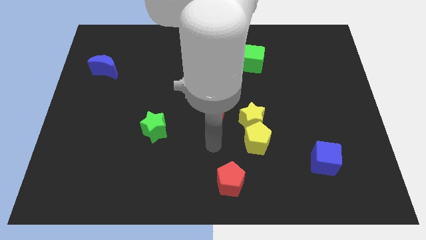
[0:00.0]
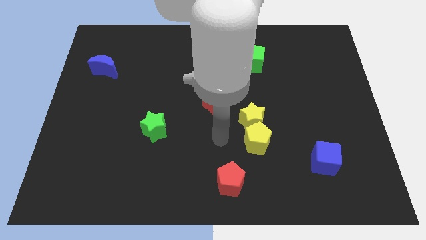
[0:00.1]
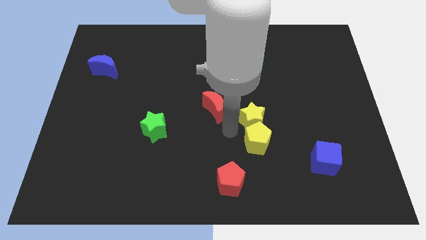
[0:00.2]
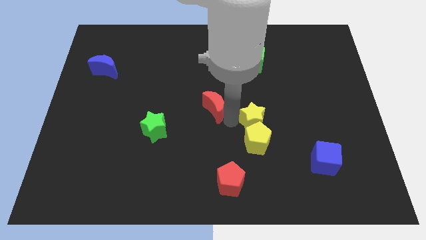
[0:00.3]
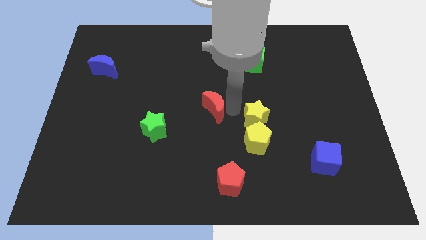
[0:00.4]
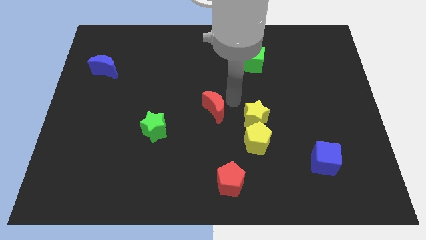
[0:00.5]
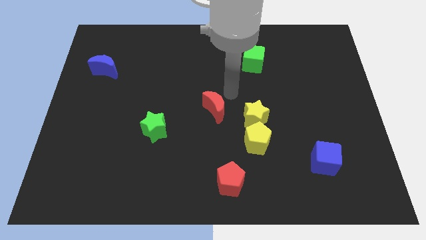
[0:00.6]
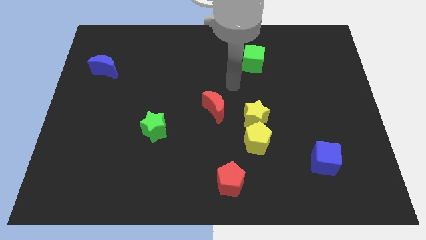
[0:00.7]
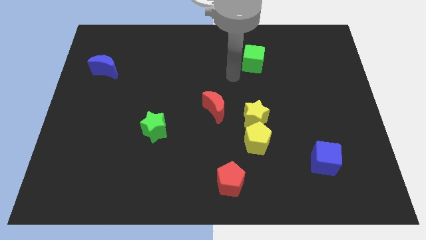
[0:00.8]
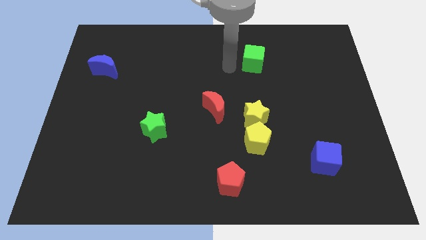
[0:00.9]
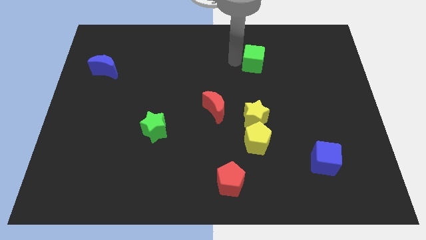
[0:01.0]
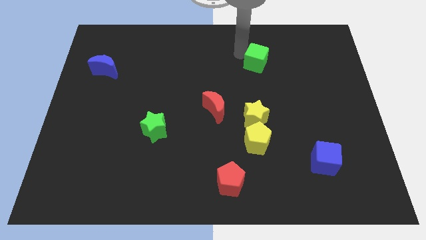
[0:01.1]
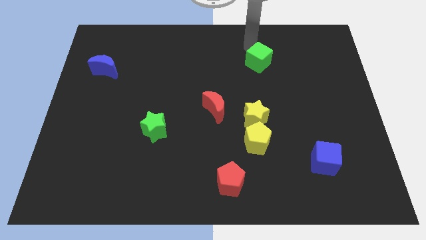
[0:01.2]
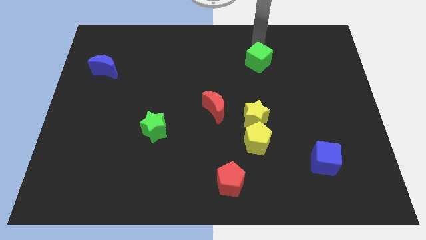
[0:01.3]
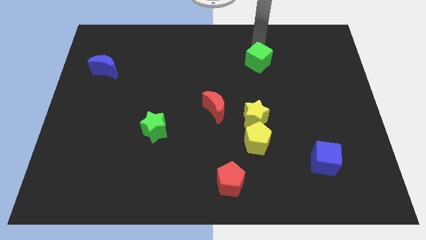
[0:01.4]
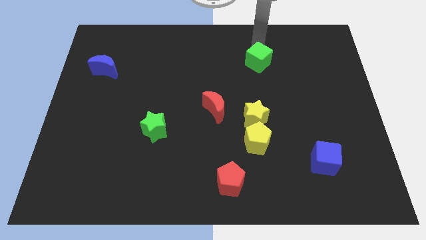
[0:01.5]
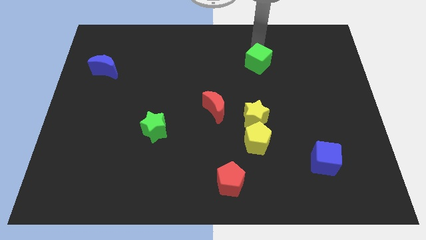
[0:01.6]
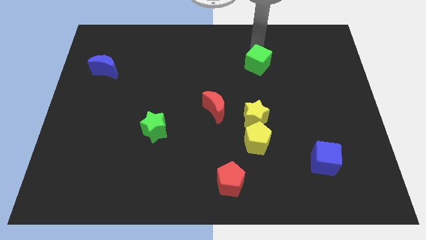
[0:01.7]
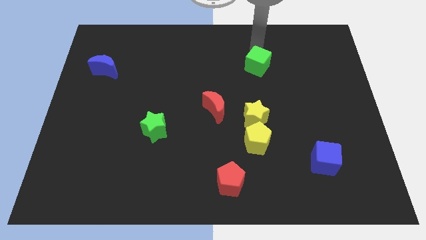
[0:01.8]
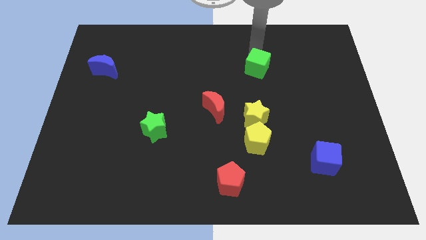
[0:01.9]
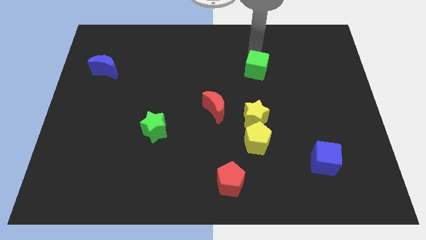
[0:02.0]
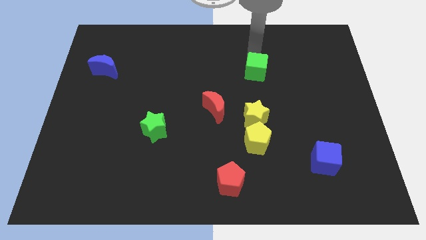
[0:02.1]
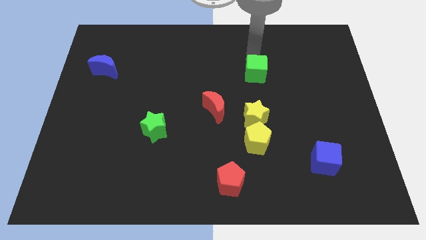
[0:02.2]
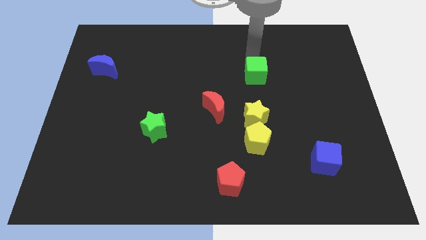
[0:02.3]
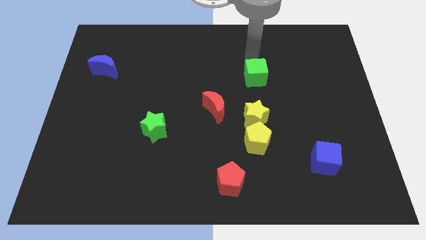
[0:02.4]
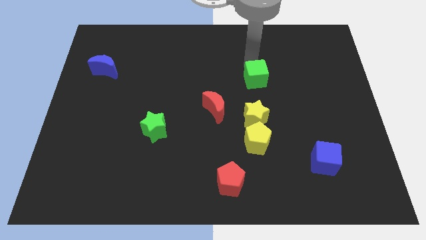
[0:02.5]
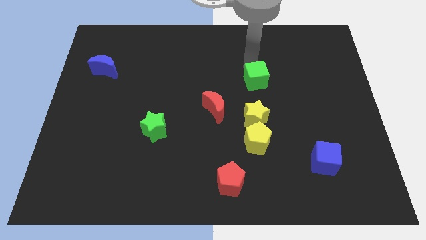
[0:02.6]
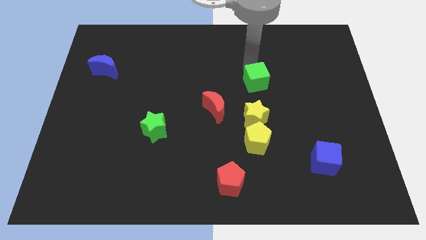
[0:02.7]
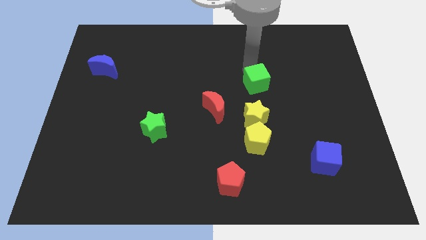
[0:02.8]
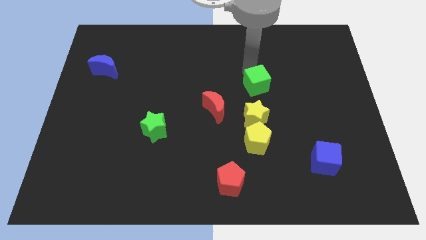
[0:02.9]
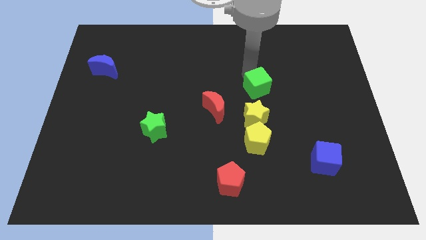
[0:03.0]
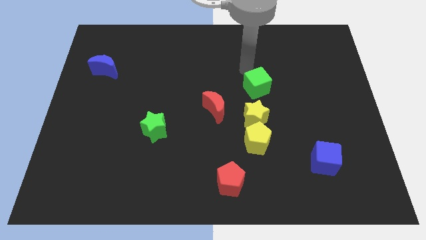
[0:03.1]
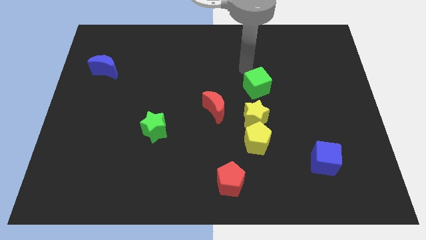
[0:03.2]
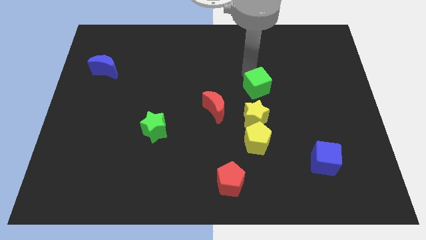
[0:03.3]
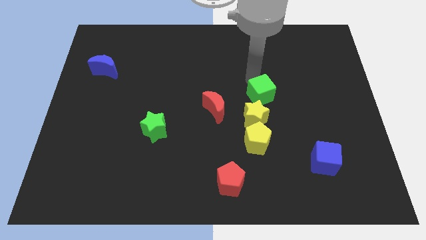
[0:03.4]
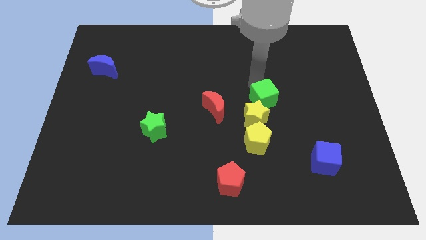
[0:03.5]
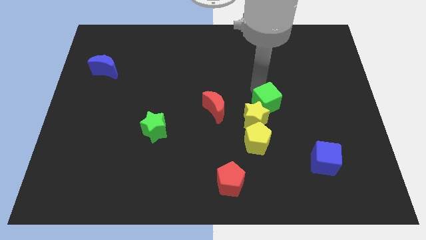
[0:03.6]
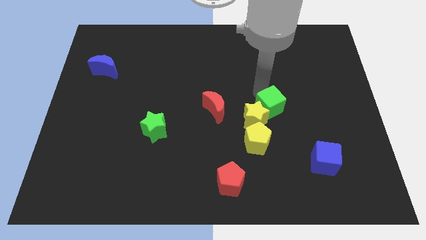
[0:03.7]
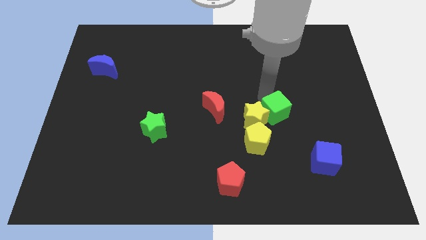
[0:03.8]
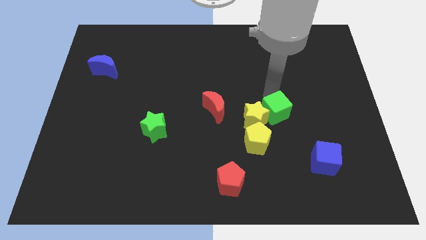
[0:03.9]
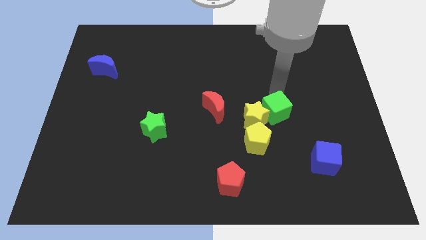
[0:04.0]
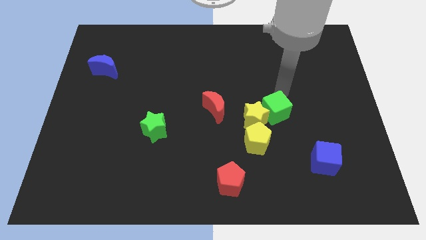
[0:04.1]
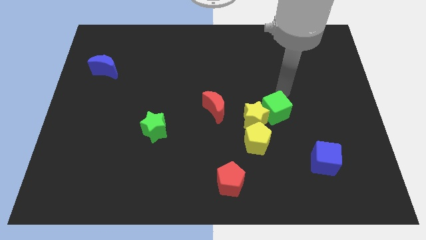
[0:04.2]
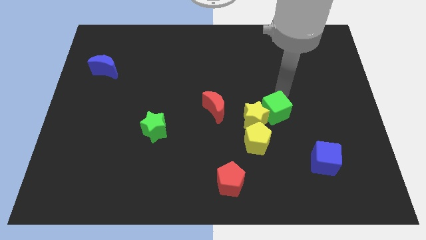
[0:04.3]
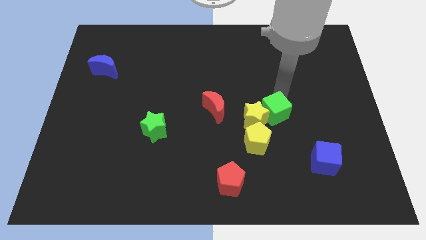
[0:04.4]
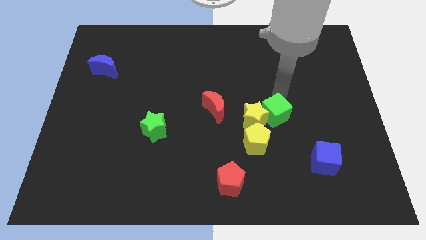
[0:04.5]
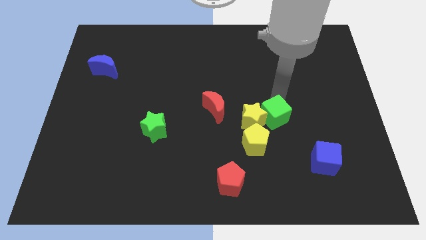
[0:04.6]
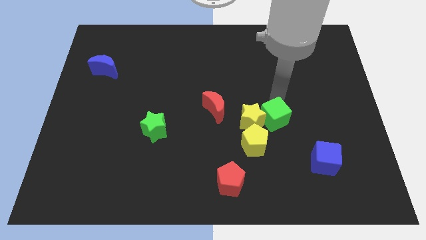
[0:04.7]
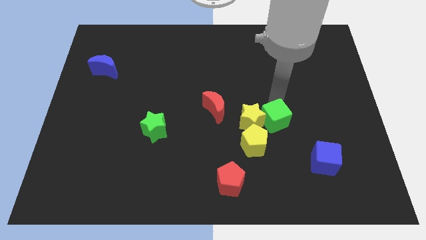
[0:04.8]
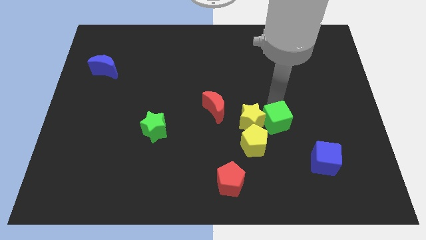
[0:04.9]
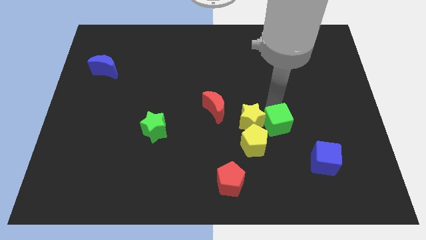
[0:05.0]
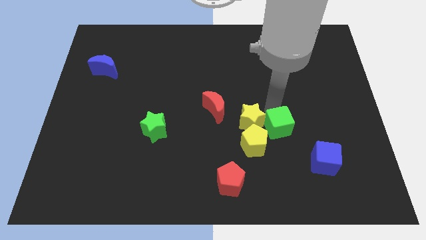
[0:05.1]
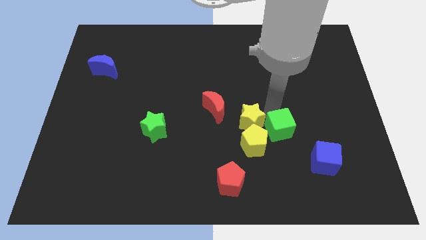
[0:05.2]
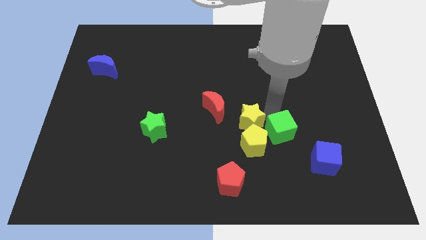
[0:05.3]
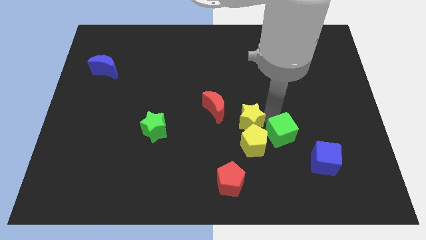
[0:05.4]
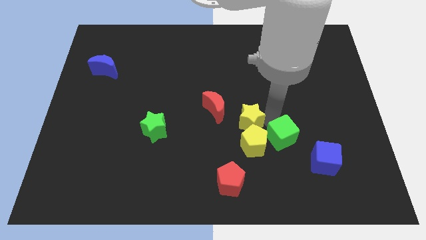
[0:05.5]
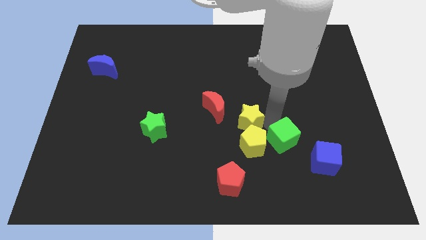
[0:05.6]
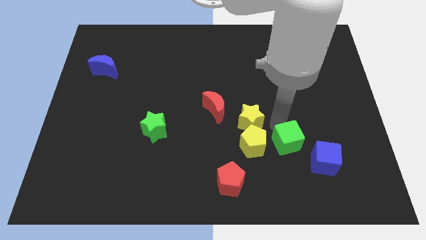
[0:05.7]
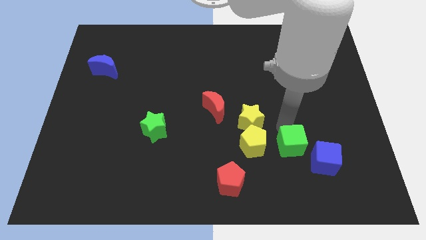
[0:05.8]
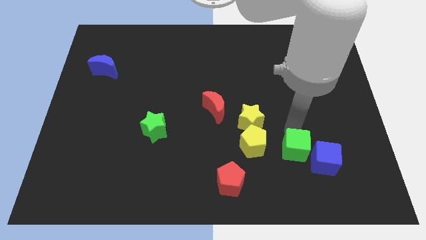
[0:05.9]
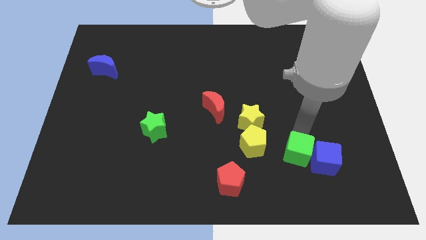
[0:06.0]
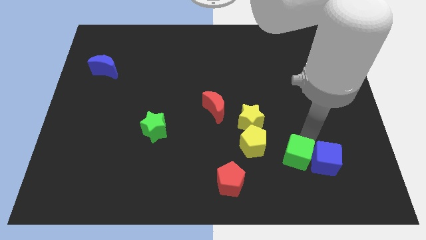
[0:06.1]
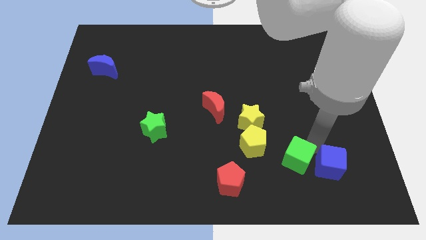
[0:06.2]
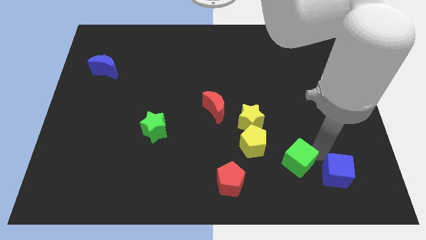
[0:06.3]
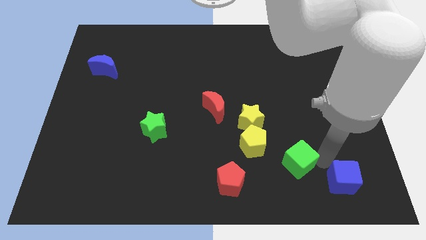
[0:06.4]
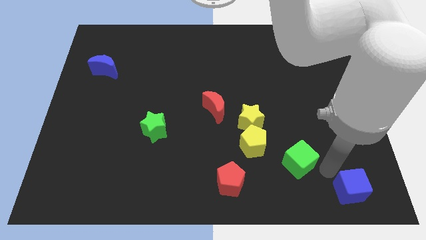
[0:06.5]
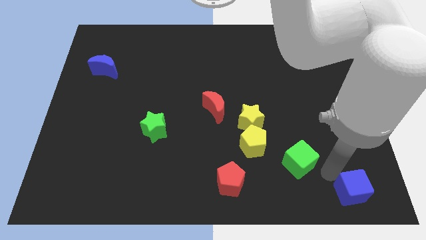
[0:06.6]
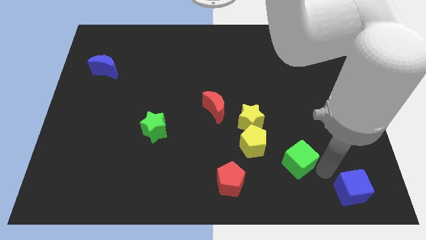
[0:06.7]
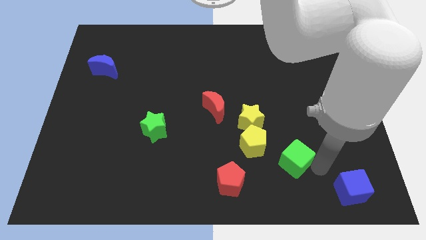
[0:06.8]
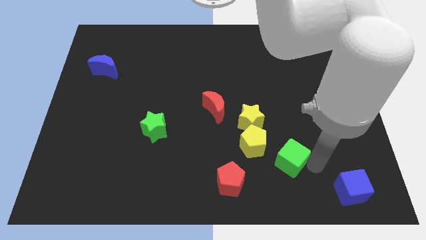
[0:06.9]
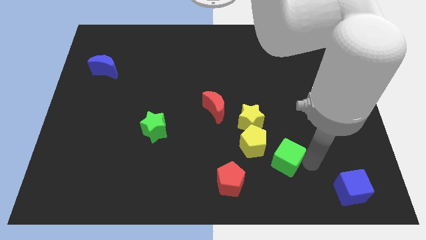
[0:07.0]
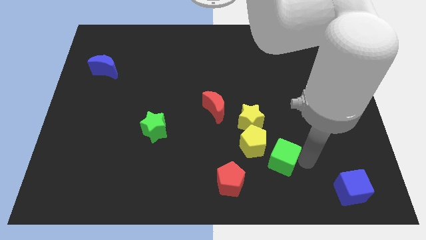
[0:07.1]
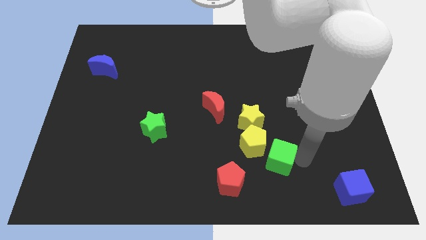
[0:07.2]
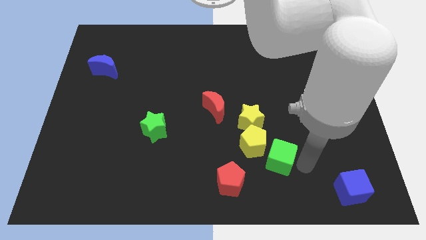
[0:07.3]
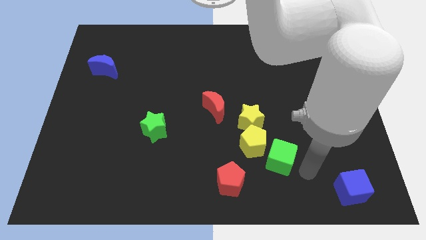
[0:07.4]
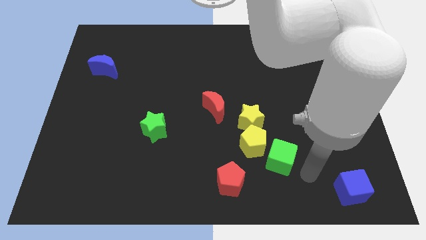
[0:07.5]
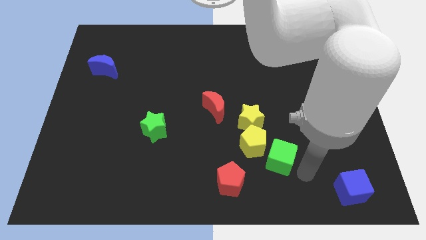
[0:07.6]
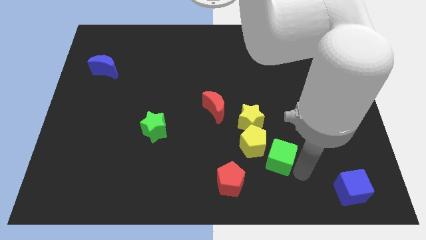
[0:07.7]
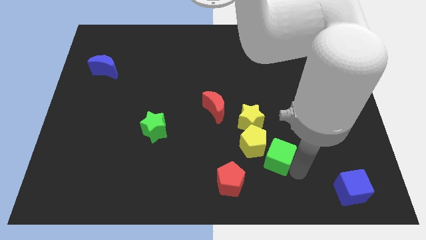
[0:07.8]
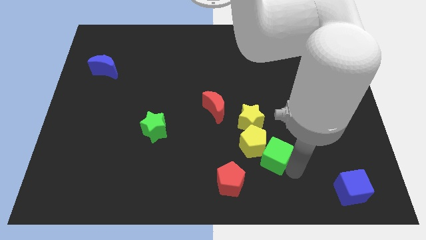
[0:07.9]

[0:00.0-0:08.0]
put the green cube close to the yellow pentagon
